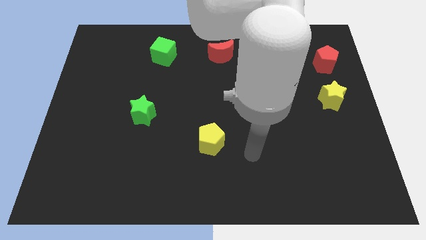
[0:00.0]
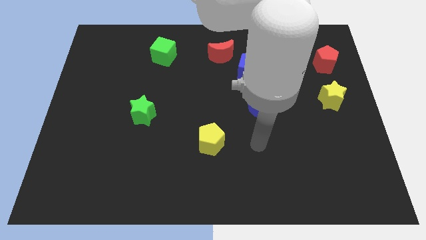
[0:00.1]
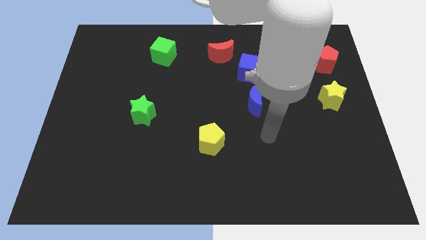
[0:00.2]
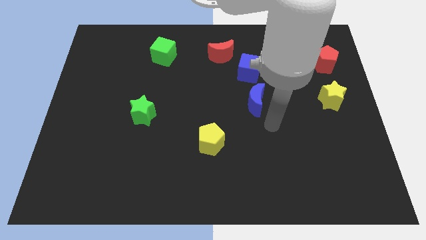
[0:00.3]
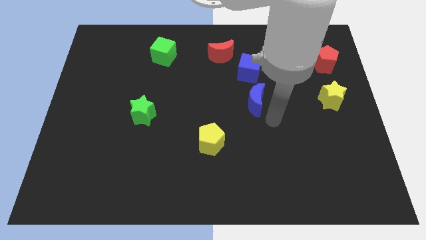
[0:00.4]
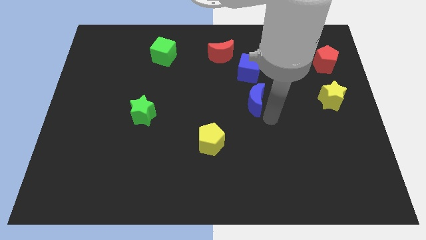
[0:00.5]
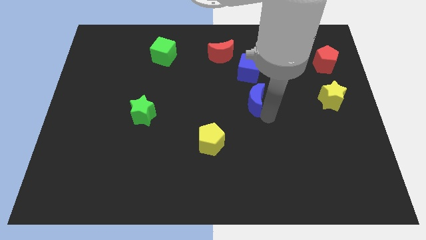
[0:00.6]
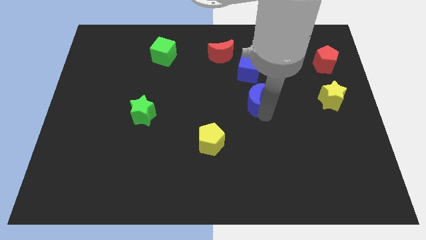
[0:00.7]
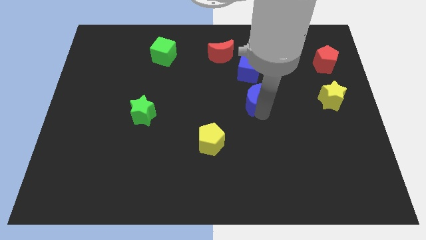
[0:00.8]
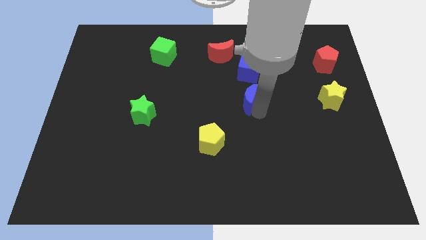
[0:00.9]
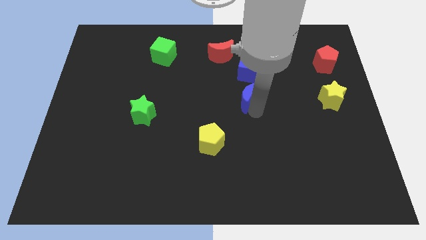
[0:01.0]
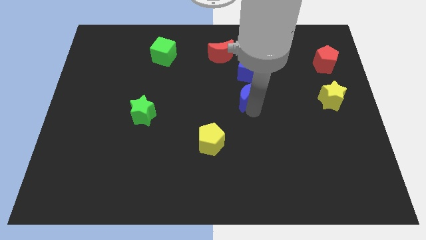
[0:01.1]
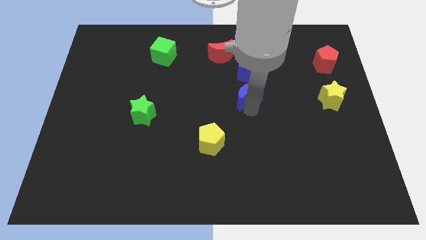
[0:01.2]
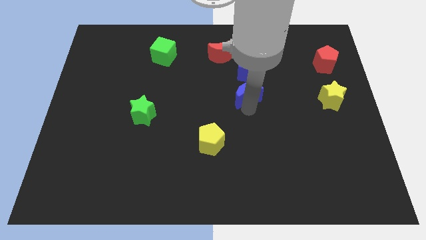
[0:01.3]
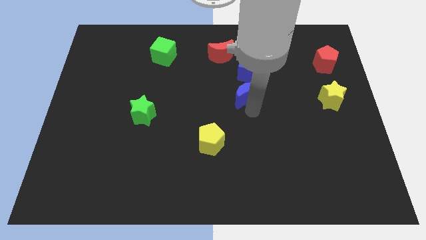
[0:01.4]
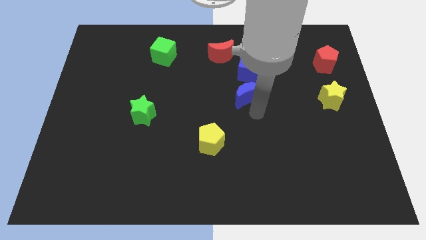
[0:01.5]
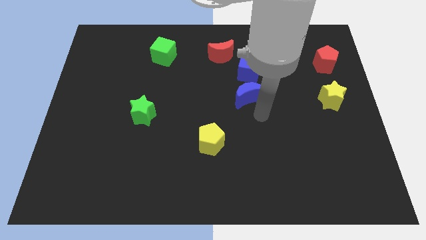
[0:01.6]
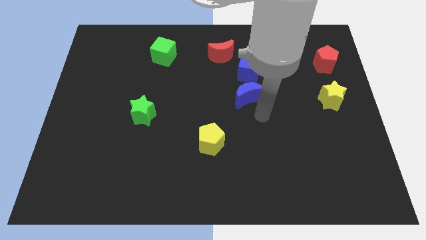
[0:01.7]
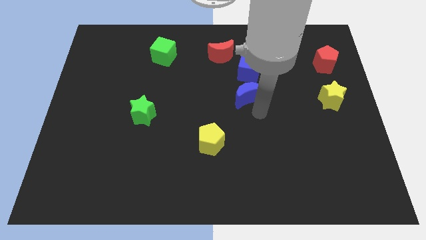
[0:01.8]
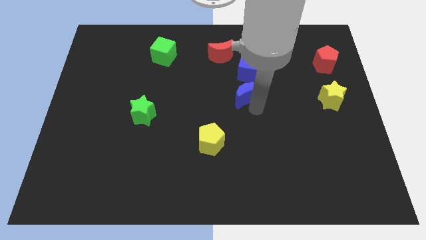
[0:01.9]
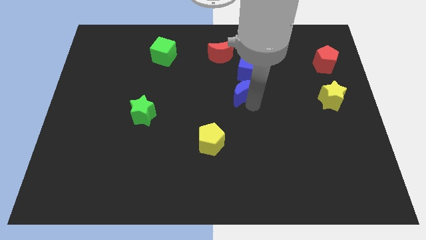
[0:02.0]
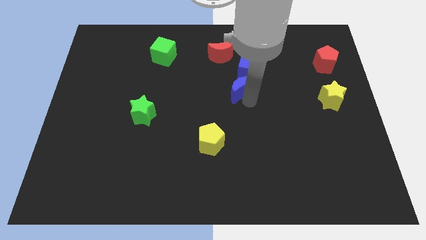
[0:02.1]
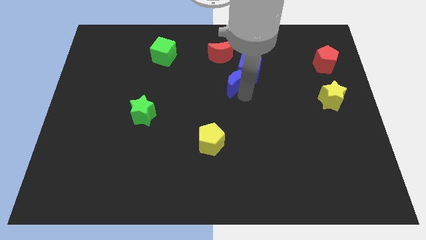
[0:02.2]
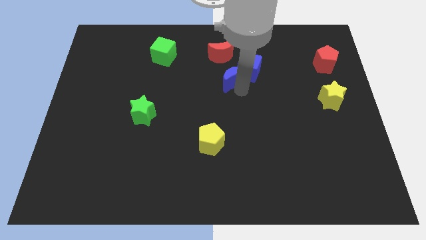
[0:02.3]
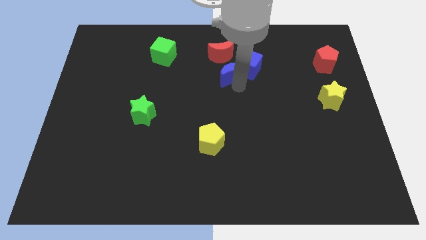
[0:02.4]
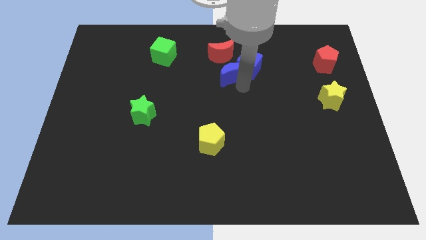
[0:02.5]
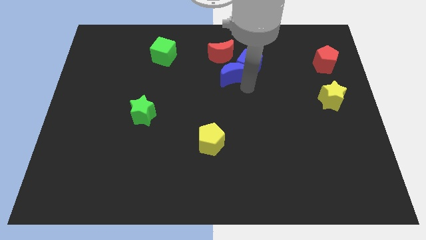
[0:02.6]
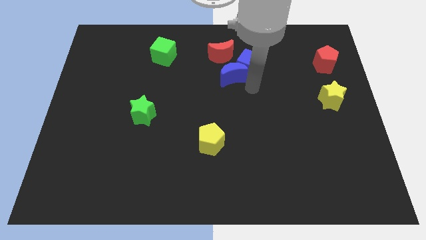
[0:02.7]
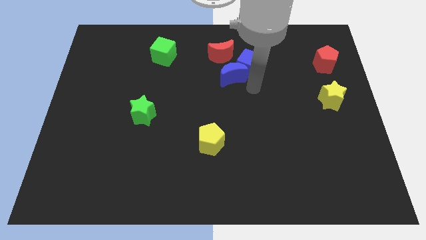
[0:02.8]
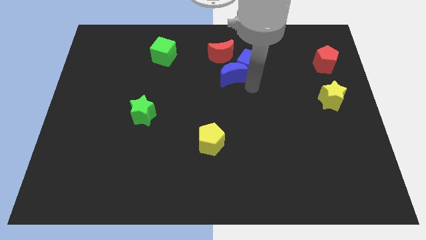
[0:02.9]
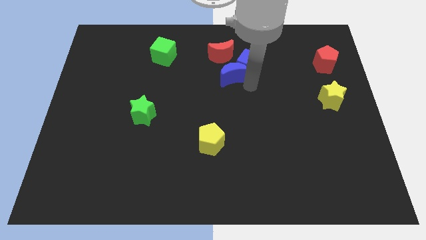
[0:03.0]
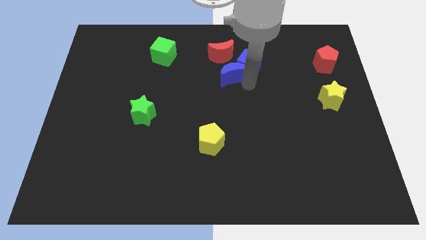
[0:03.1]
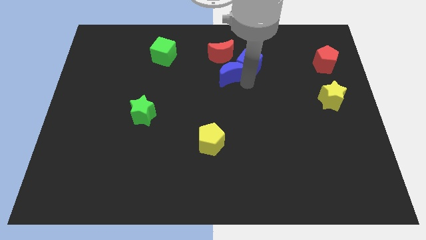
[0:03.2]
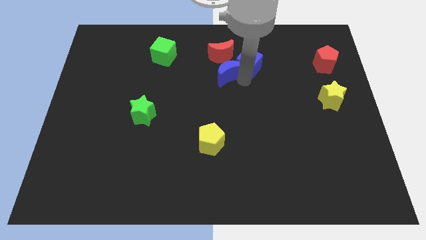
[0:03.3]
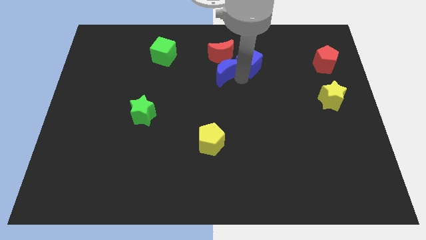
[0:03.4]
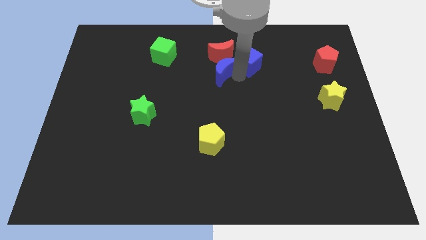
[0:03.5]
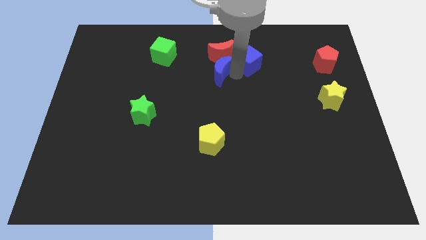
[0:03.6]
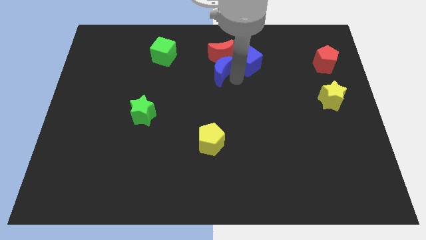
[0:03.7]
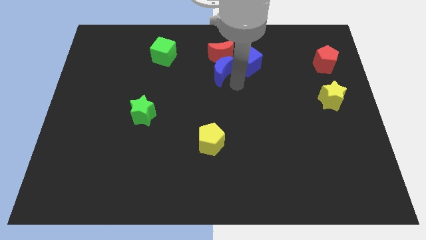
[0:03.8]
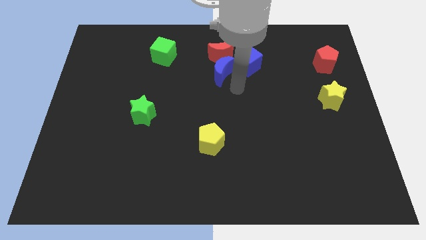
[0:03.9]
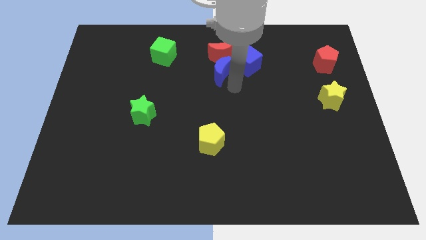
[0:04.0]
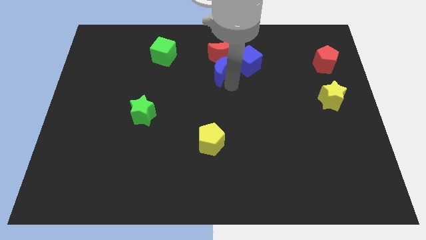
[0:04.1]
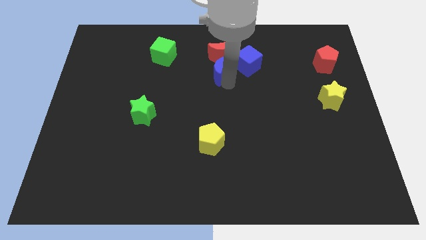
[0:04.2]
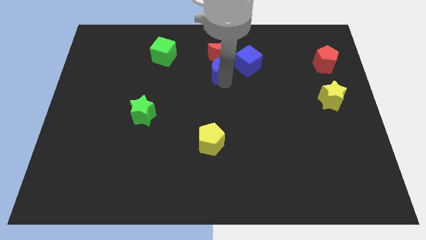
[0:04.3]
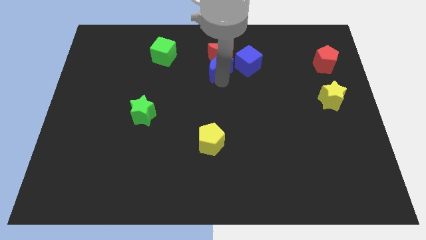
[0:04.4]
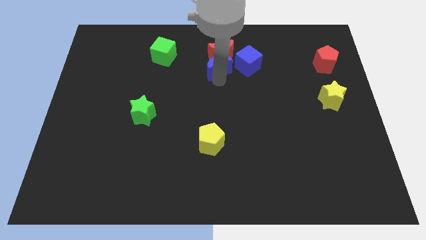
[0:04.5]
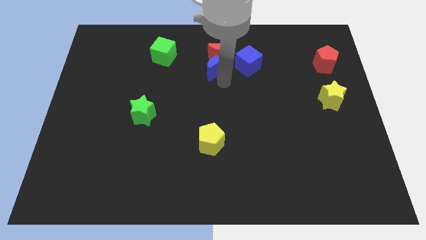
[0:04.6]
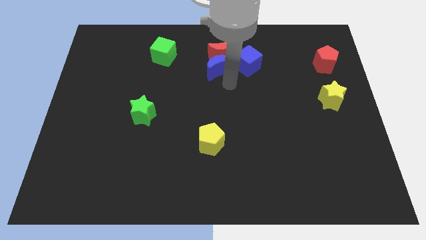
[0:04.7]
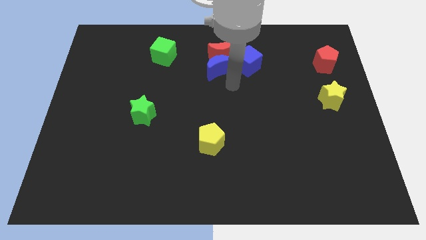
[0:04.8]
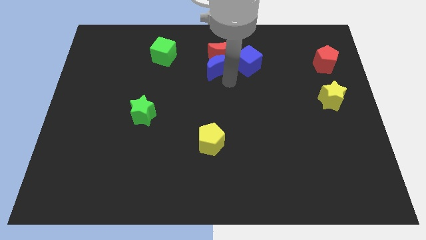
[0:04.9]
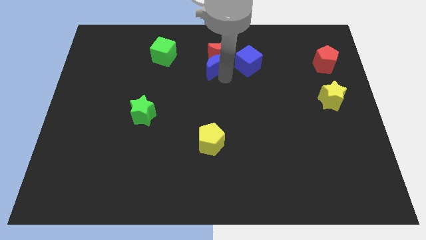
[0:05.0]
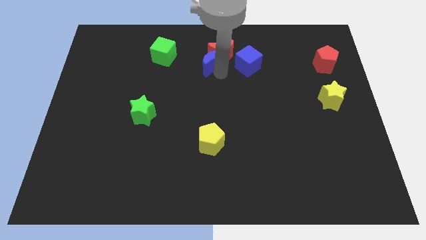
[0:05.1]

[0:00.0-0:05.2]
put the blue moon to the right of the green cube

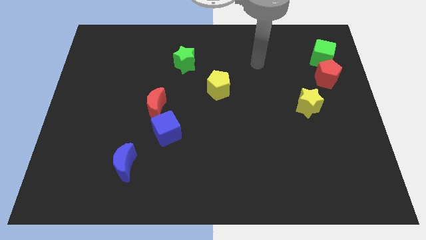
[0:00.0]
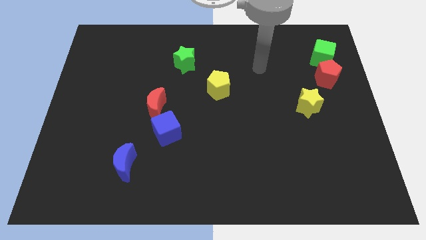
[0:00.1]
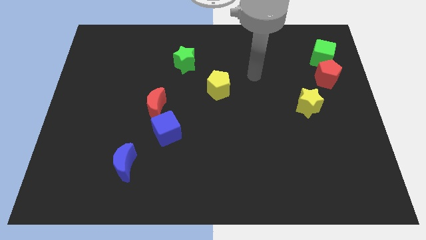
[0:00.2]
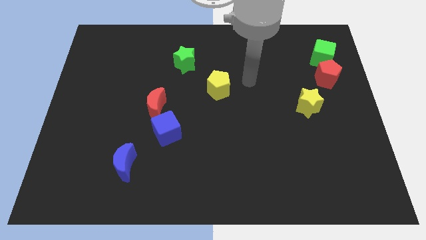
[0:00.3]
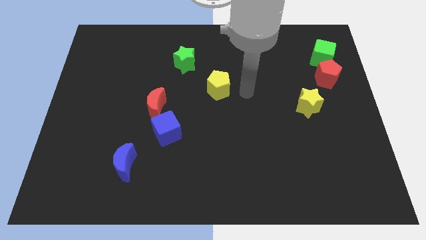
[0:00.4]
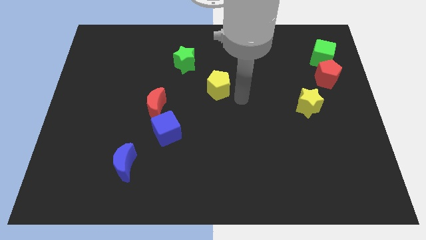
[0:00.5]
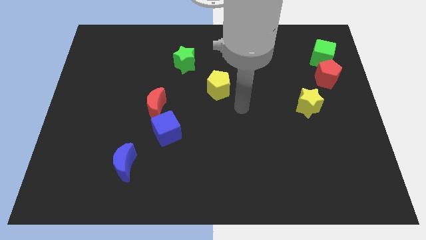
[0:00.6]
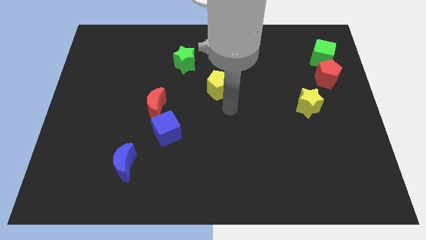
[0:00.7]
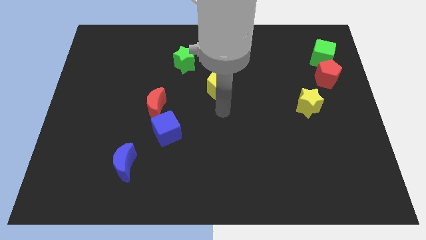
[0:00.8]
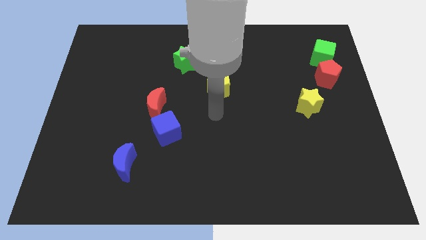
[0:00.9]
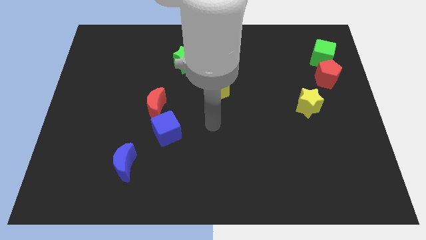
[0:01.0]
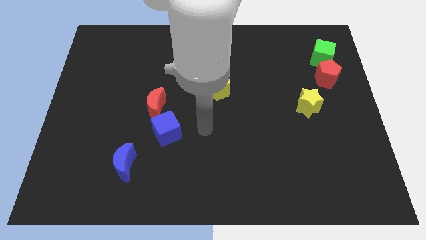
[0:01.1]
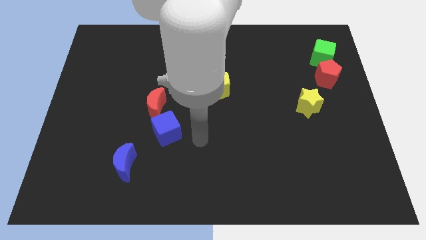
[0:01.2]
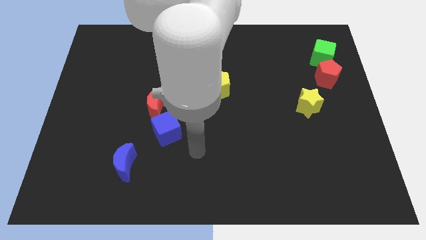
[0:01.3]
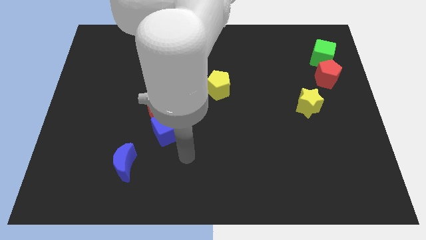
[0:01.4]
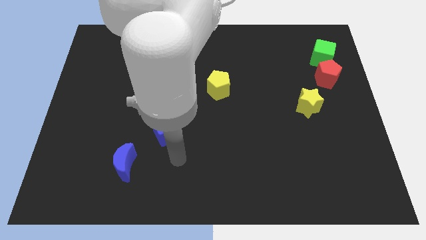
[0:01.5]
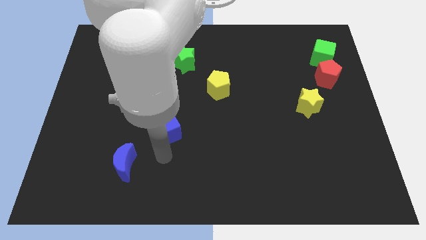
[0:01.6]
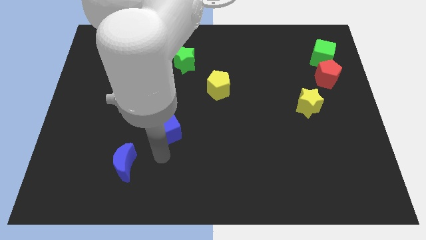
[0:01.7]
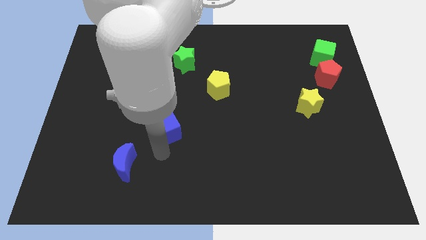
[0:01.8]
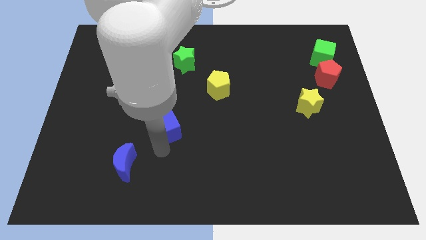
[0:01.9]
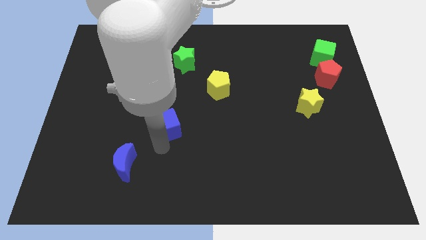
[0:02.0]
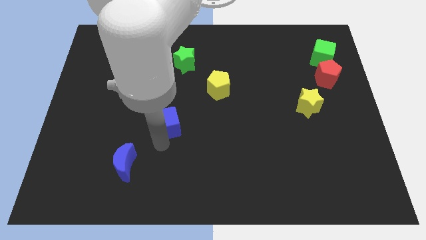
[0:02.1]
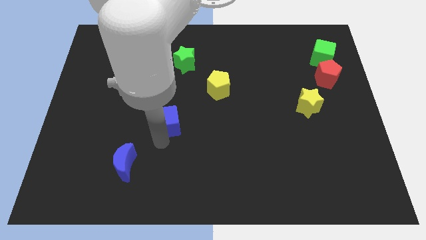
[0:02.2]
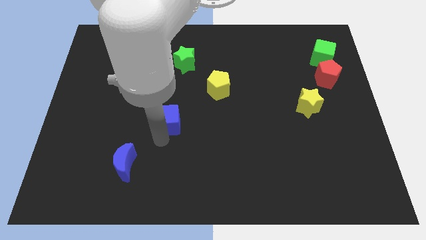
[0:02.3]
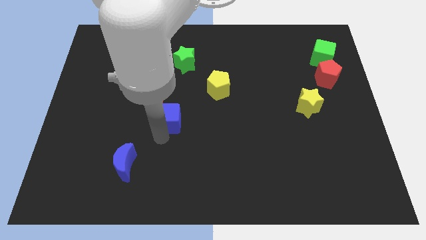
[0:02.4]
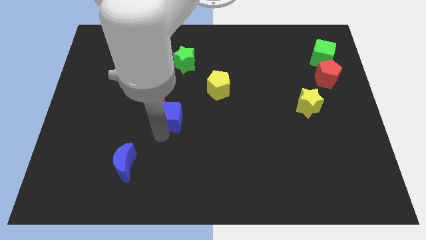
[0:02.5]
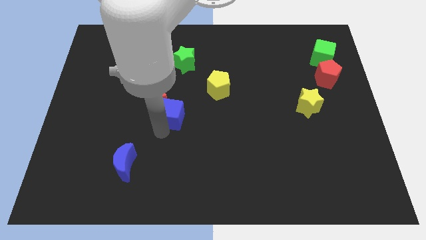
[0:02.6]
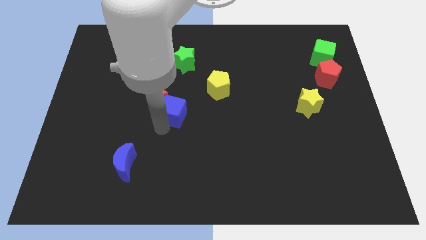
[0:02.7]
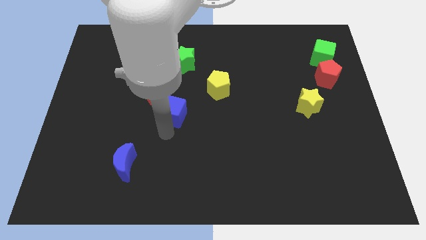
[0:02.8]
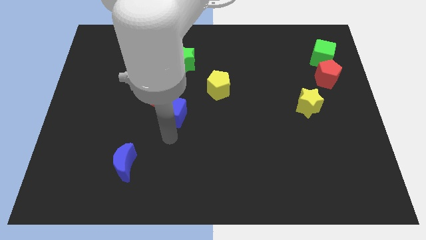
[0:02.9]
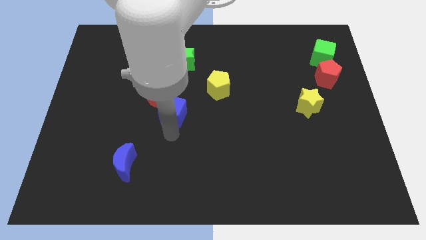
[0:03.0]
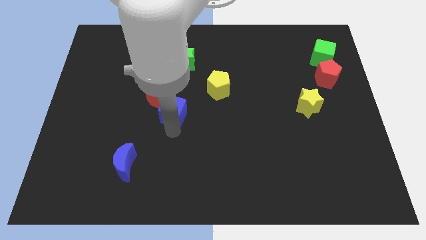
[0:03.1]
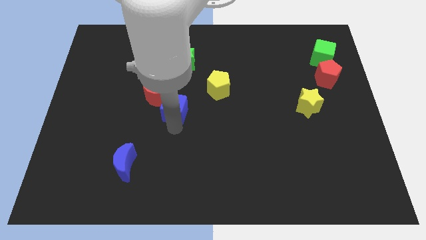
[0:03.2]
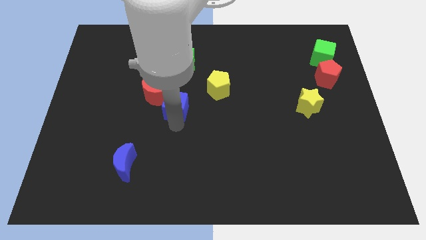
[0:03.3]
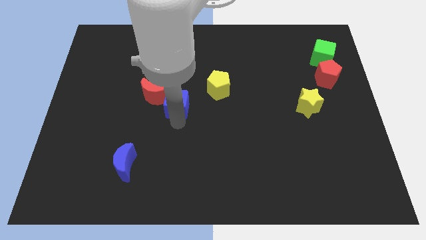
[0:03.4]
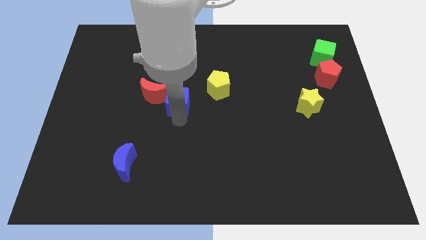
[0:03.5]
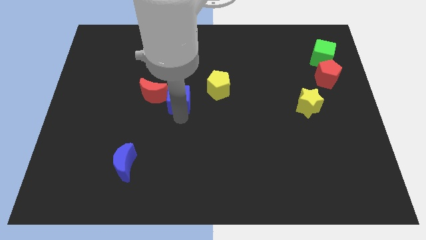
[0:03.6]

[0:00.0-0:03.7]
put the blue cube to the left side of the yellow pentagon
